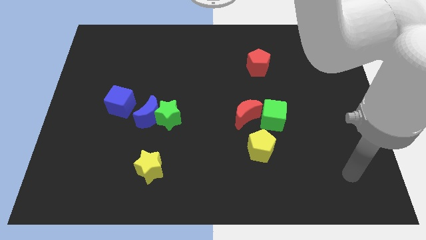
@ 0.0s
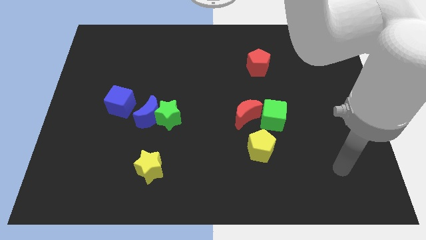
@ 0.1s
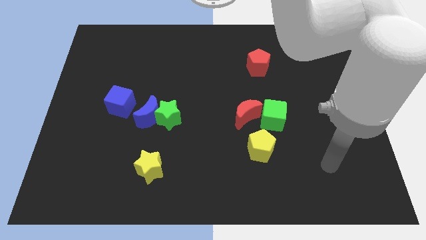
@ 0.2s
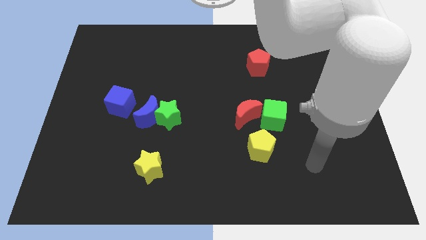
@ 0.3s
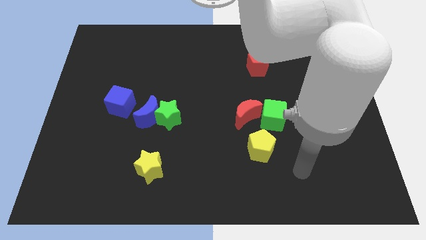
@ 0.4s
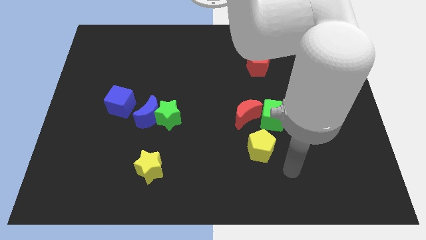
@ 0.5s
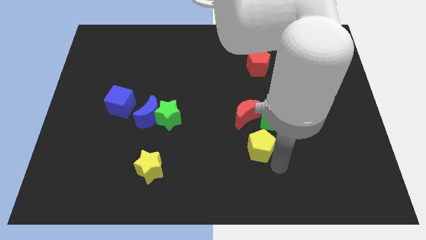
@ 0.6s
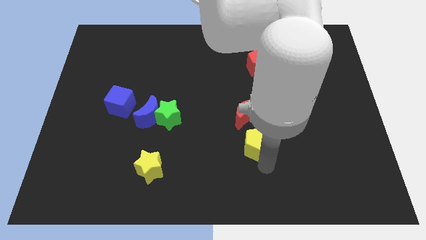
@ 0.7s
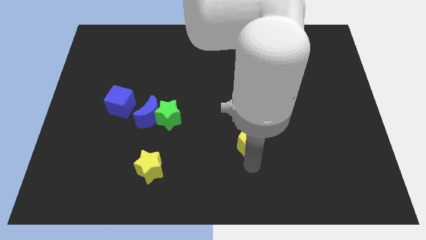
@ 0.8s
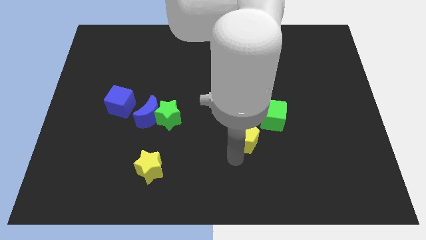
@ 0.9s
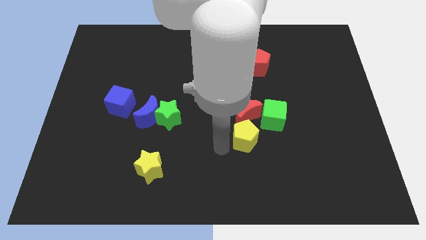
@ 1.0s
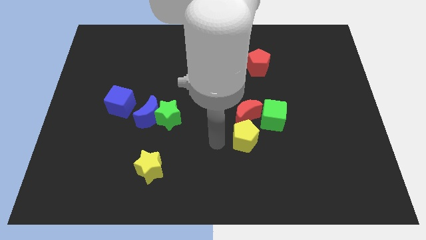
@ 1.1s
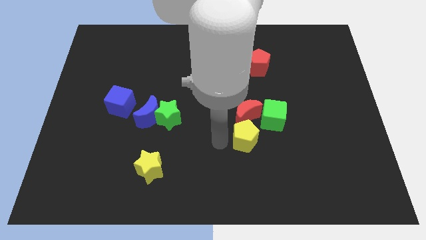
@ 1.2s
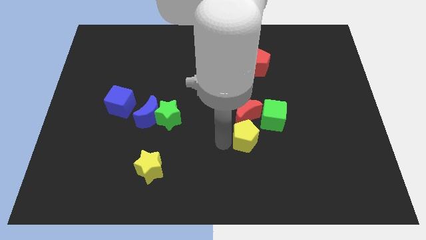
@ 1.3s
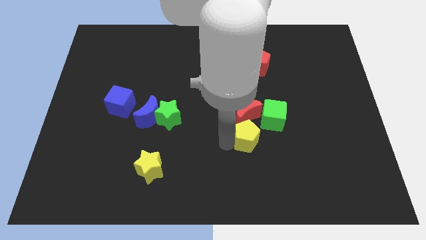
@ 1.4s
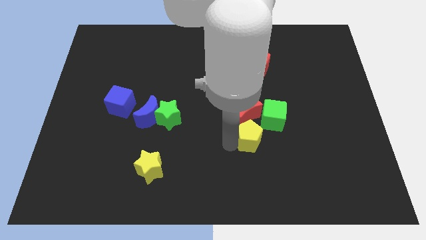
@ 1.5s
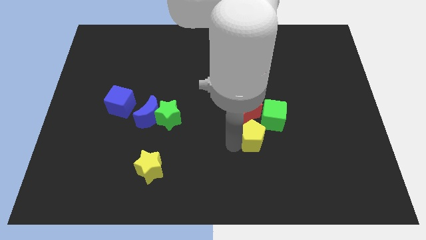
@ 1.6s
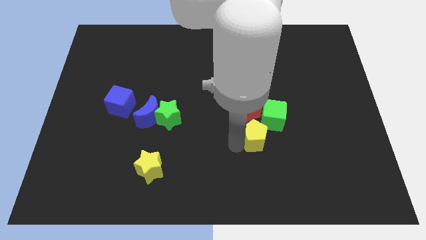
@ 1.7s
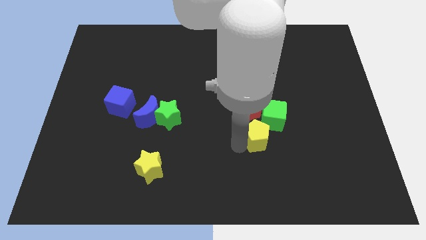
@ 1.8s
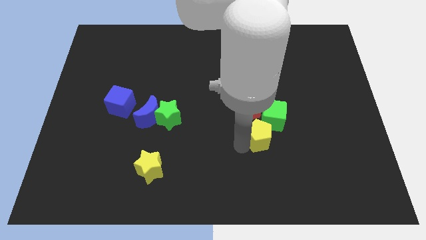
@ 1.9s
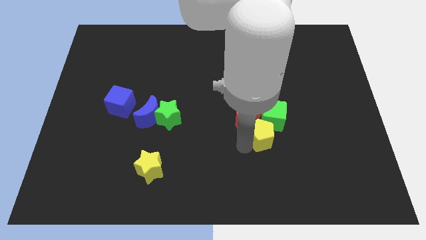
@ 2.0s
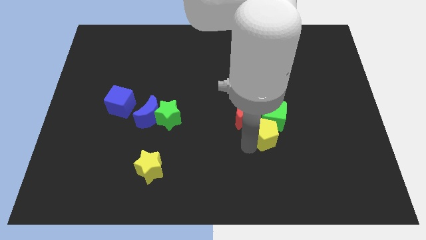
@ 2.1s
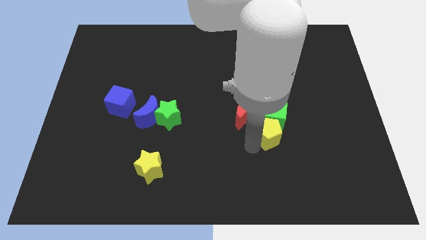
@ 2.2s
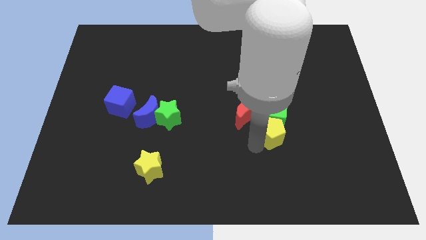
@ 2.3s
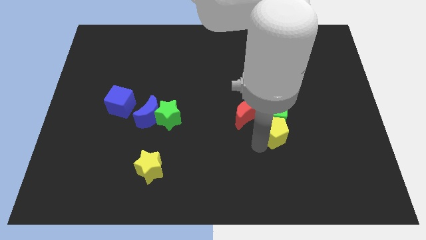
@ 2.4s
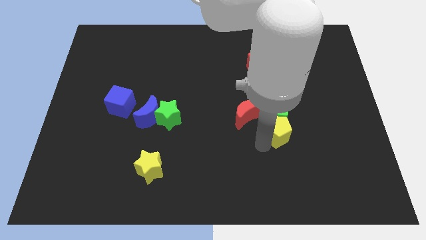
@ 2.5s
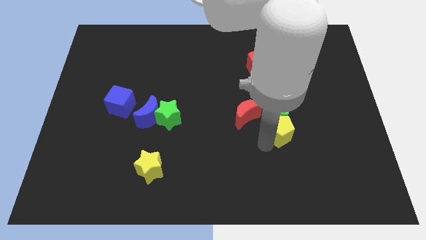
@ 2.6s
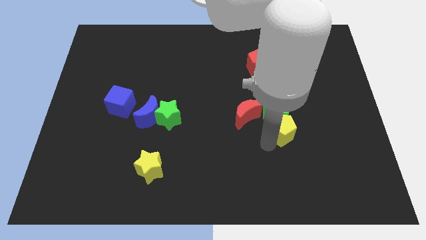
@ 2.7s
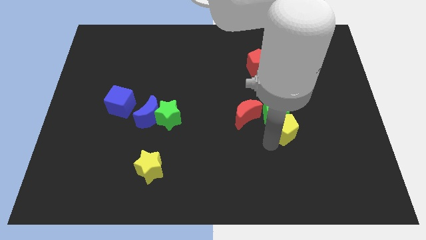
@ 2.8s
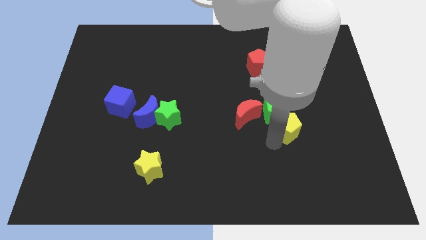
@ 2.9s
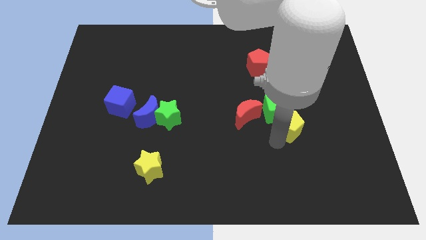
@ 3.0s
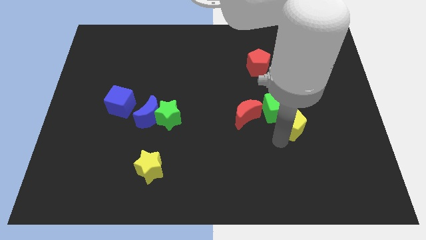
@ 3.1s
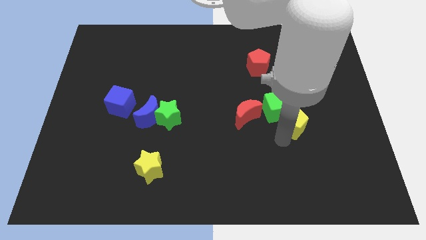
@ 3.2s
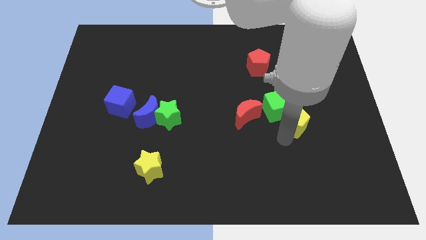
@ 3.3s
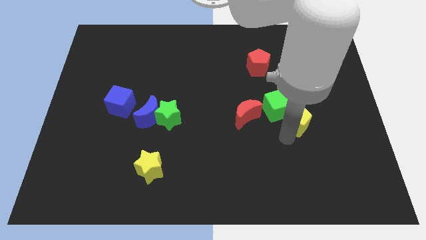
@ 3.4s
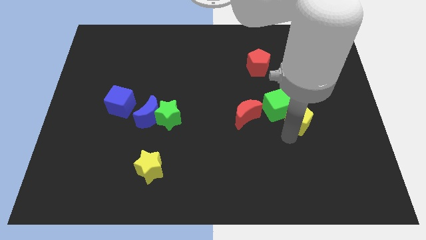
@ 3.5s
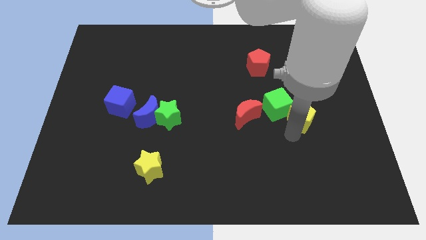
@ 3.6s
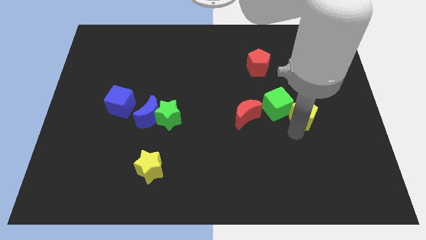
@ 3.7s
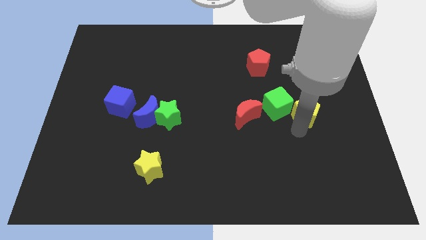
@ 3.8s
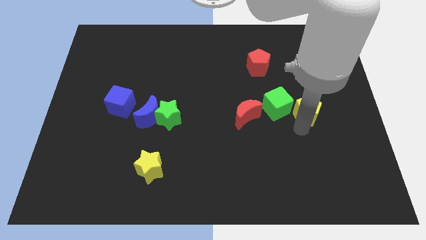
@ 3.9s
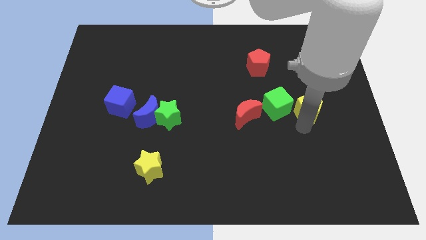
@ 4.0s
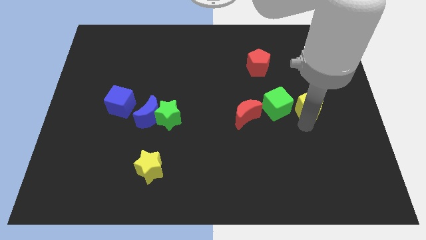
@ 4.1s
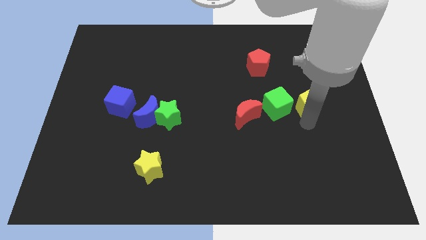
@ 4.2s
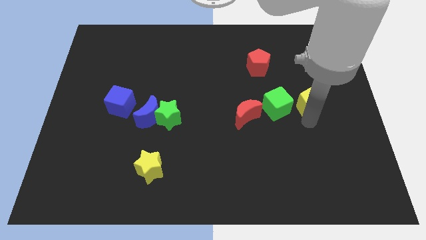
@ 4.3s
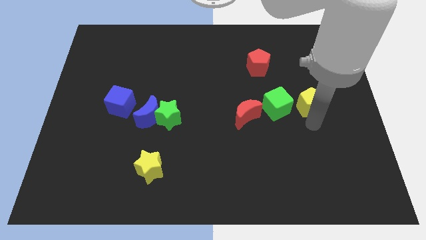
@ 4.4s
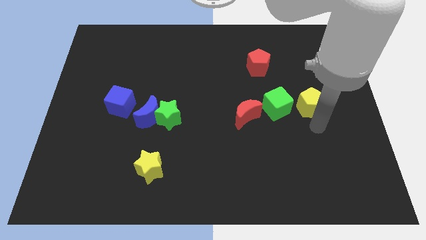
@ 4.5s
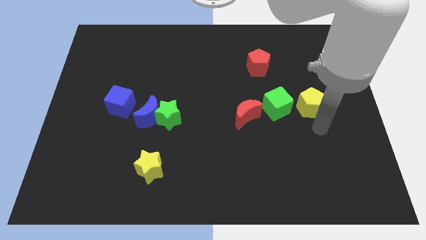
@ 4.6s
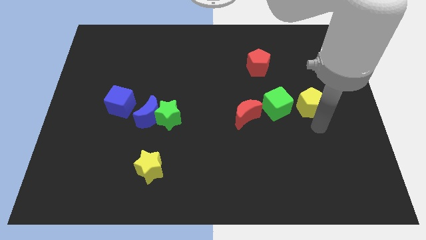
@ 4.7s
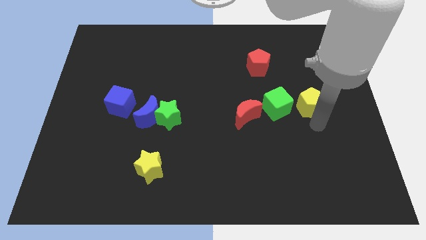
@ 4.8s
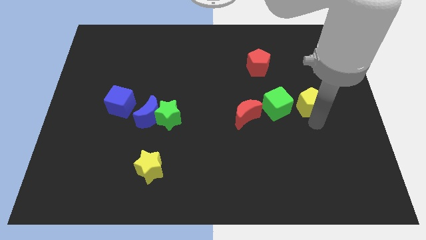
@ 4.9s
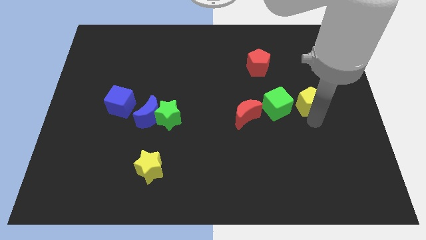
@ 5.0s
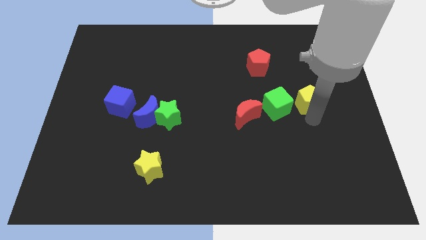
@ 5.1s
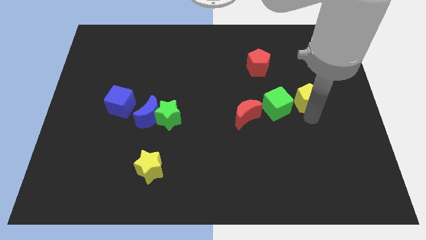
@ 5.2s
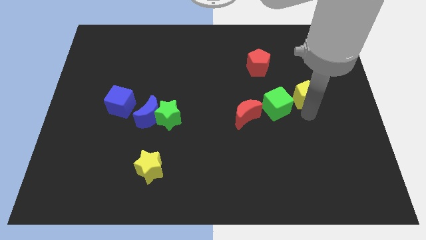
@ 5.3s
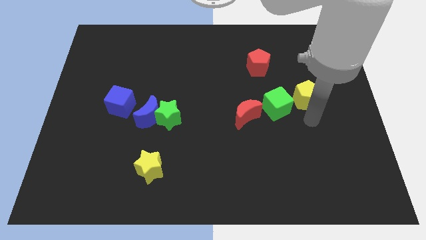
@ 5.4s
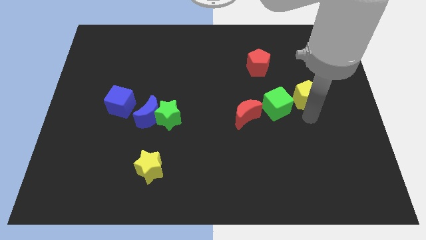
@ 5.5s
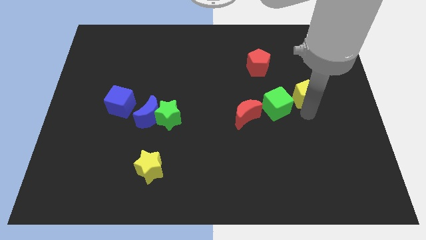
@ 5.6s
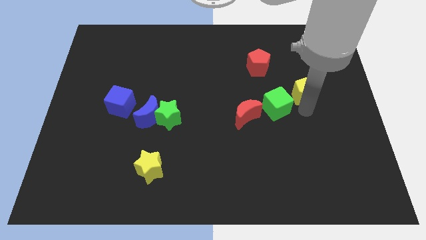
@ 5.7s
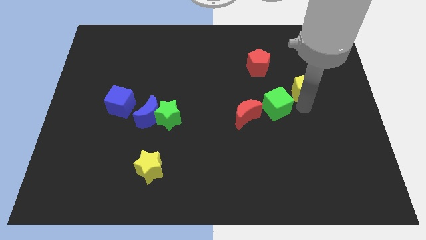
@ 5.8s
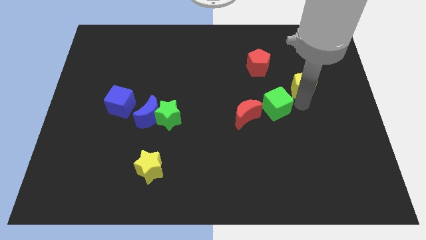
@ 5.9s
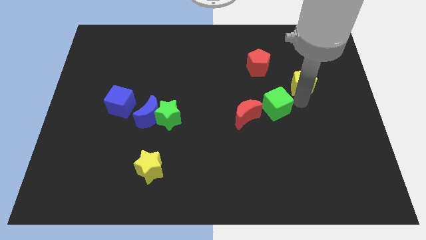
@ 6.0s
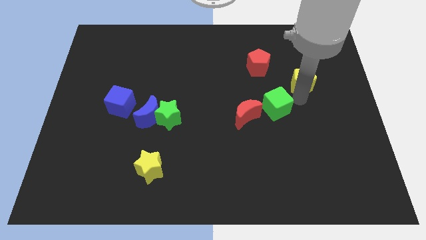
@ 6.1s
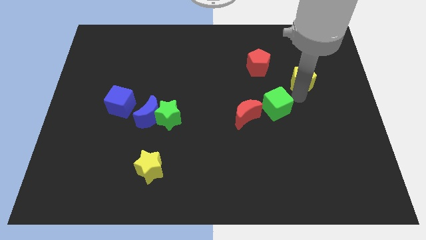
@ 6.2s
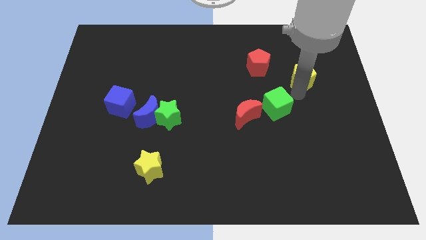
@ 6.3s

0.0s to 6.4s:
put the yellow pentagon to the right of the red pentagon

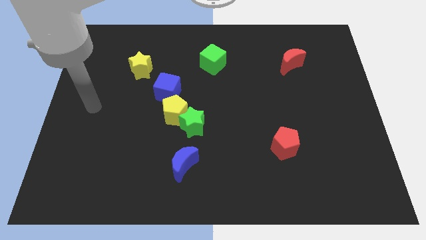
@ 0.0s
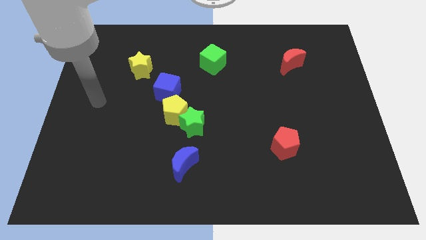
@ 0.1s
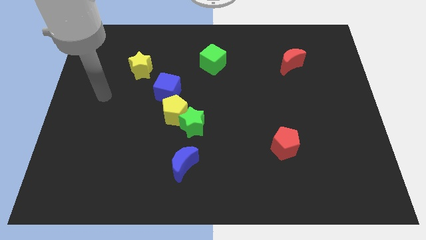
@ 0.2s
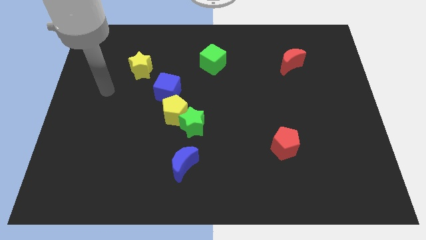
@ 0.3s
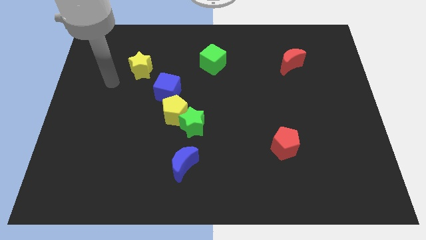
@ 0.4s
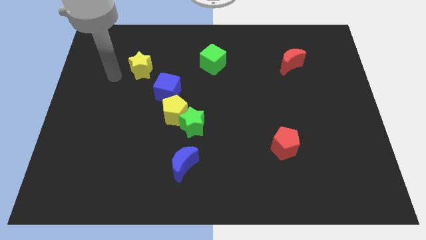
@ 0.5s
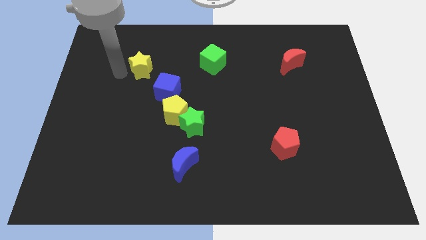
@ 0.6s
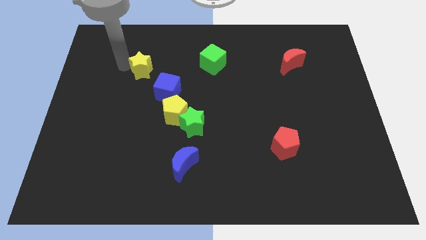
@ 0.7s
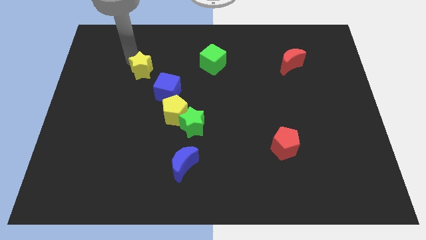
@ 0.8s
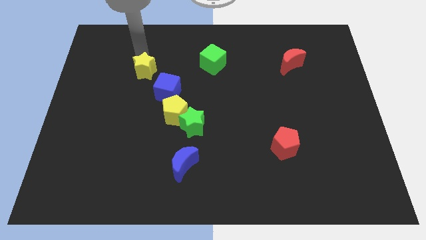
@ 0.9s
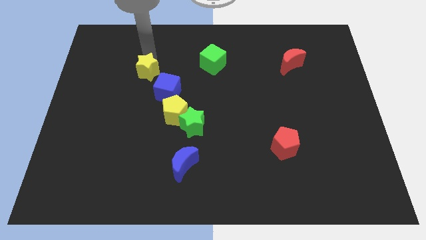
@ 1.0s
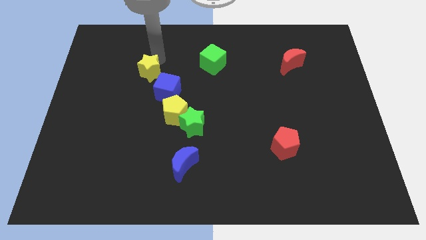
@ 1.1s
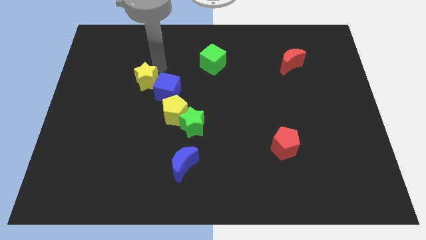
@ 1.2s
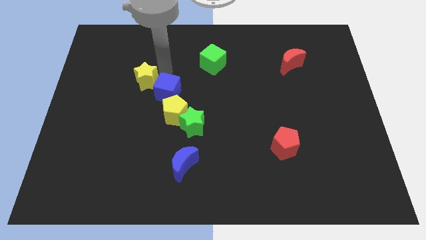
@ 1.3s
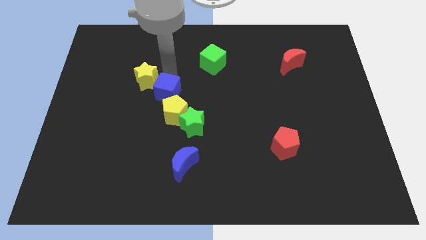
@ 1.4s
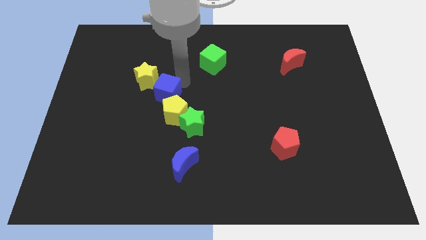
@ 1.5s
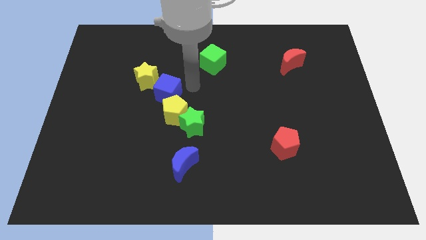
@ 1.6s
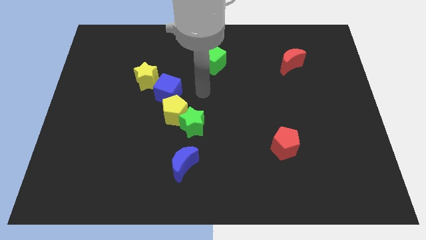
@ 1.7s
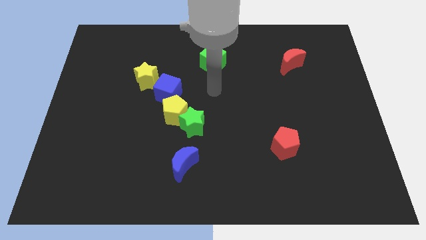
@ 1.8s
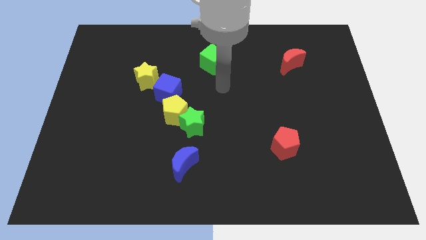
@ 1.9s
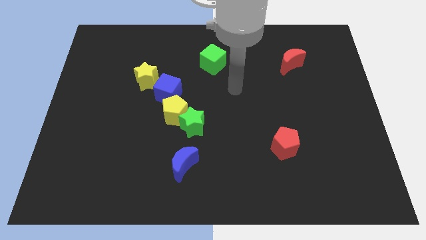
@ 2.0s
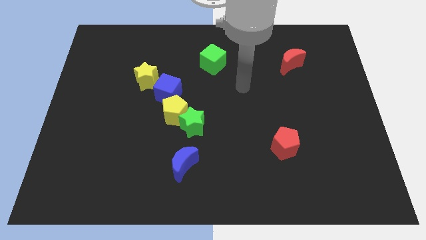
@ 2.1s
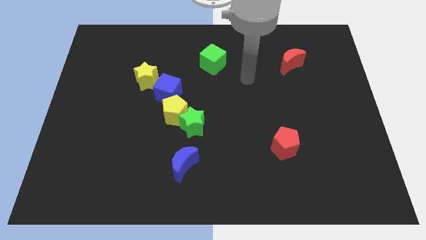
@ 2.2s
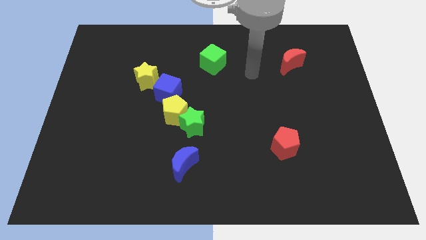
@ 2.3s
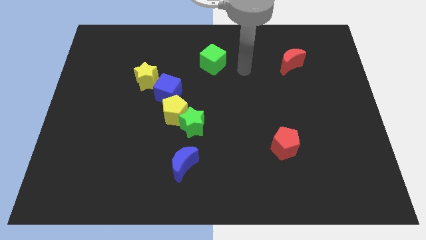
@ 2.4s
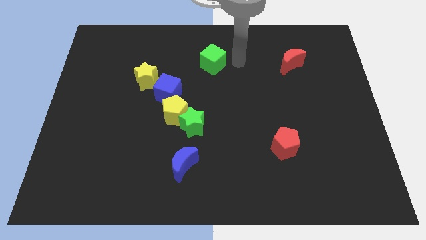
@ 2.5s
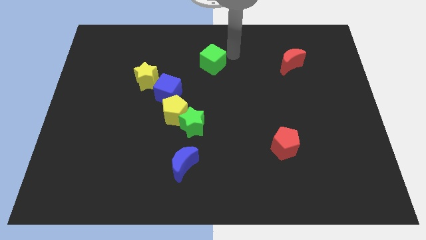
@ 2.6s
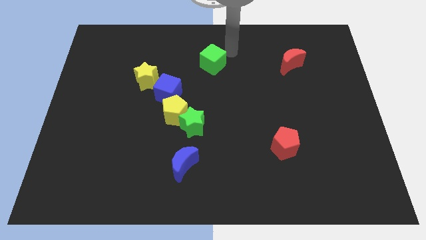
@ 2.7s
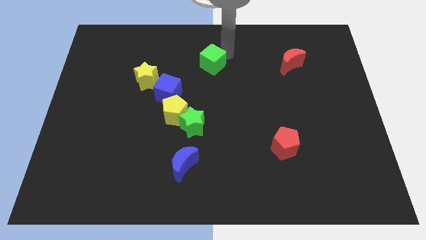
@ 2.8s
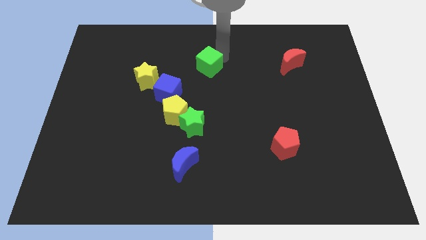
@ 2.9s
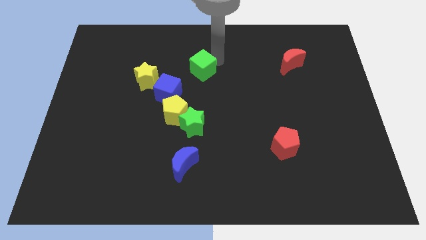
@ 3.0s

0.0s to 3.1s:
put the green cube to the top right side of the blue cube
